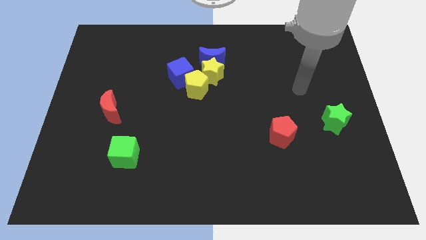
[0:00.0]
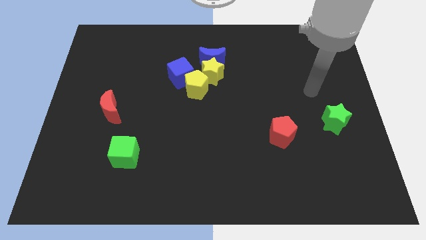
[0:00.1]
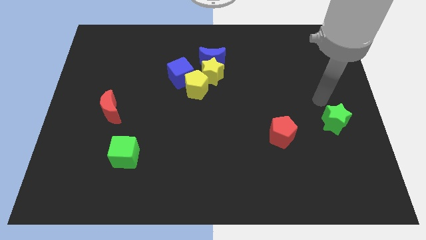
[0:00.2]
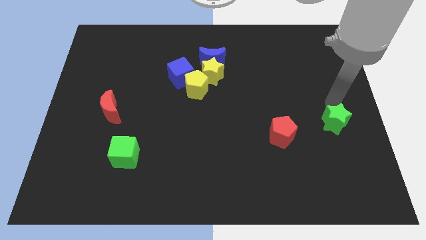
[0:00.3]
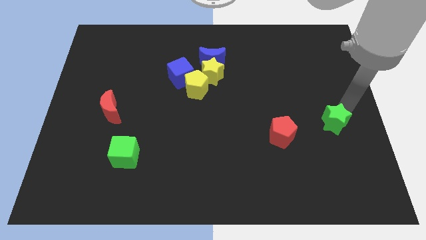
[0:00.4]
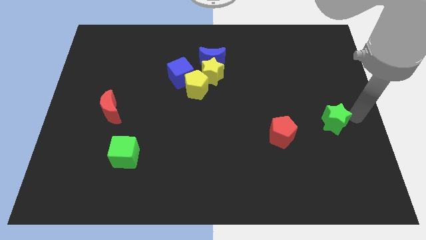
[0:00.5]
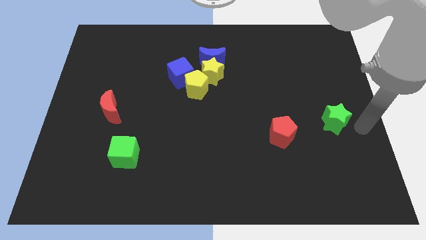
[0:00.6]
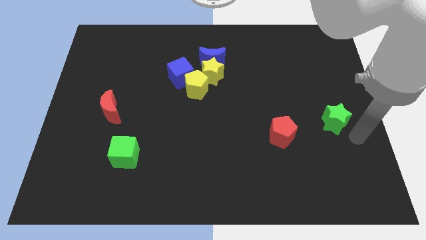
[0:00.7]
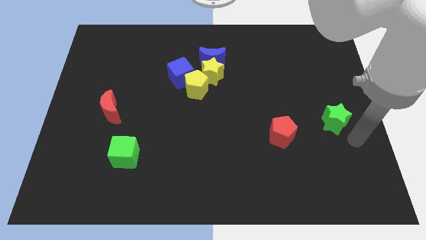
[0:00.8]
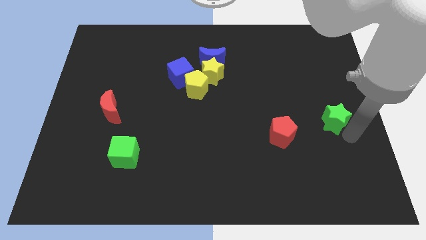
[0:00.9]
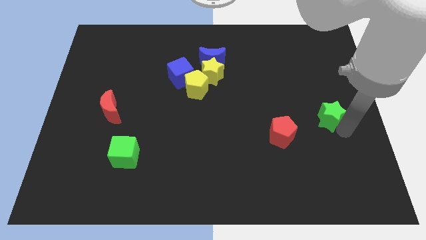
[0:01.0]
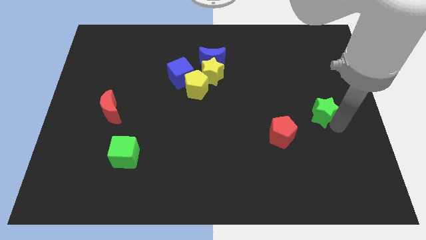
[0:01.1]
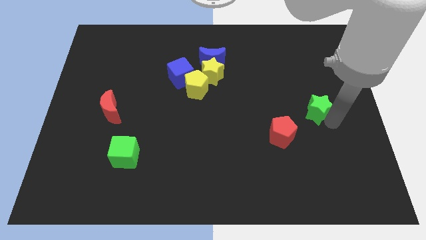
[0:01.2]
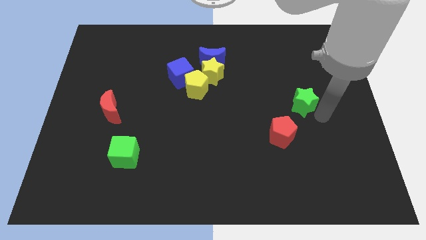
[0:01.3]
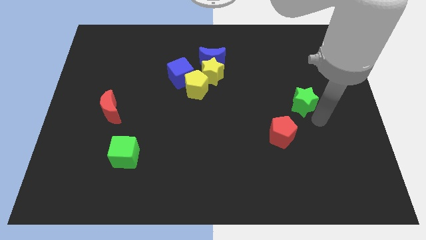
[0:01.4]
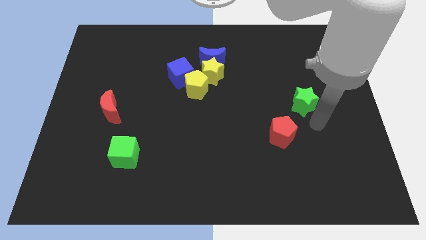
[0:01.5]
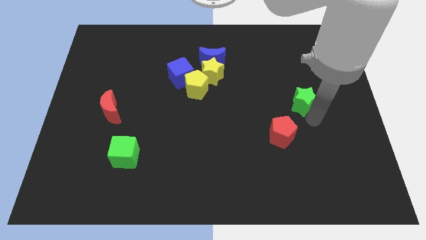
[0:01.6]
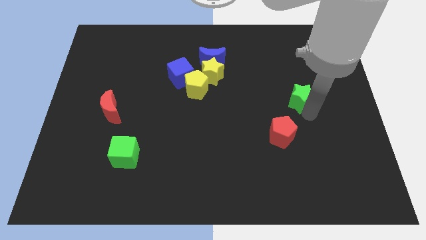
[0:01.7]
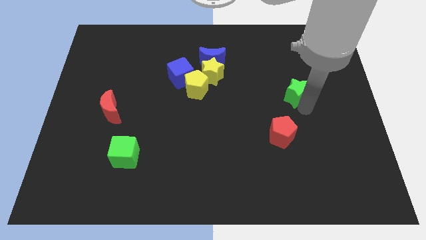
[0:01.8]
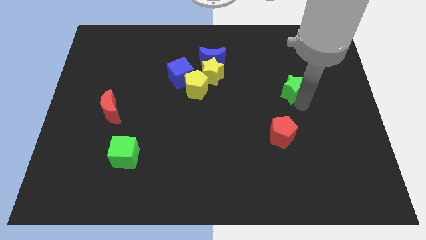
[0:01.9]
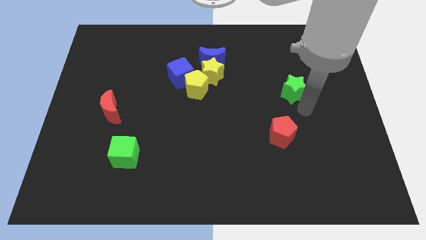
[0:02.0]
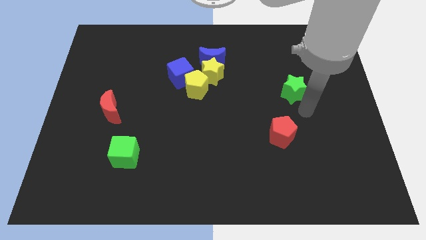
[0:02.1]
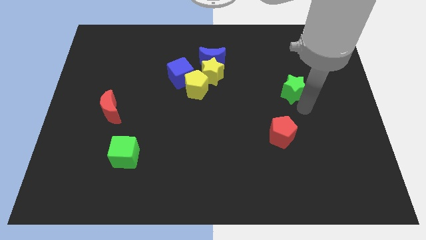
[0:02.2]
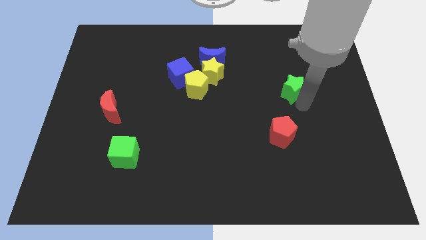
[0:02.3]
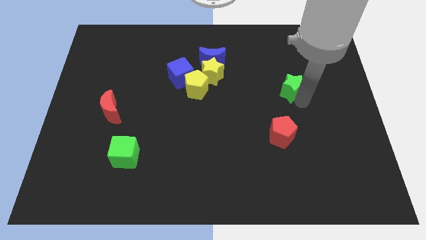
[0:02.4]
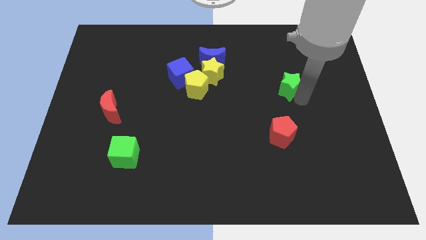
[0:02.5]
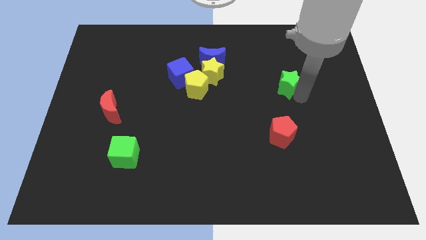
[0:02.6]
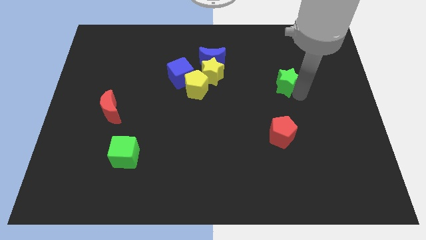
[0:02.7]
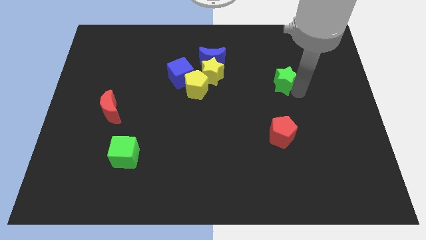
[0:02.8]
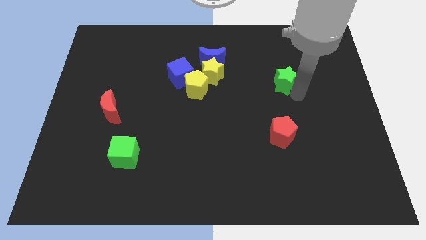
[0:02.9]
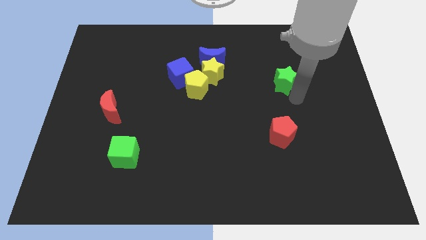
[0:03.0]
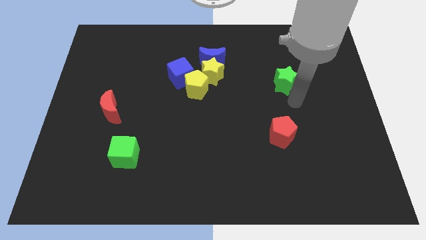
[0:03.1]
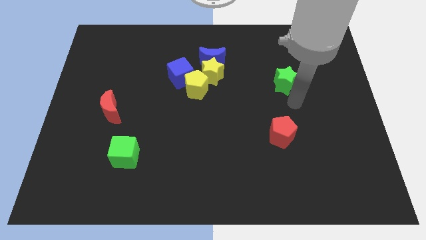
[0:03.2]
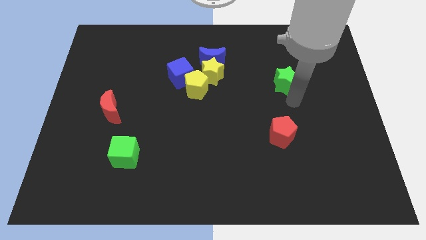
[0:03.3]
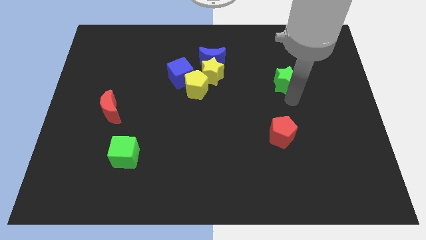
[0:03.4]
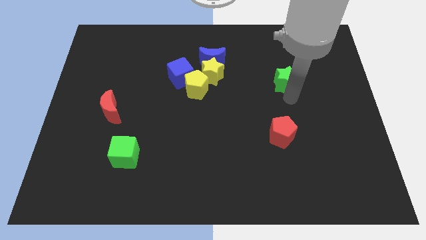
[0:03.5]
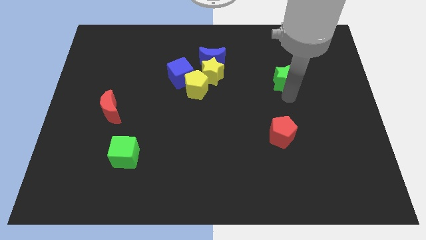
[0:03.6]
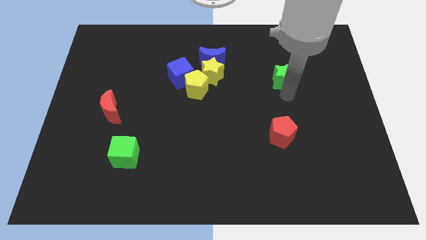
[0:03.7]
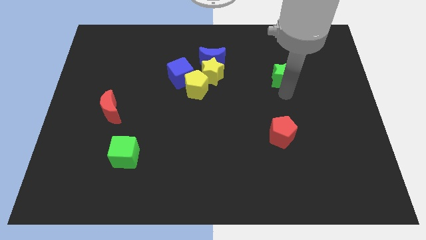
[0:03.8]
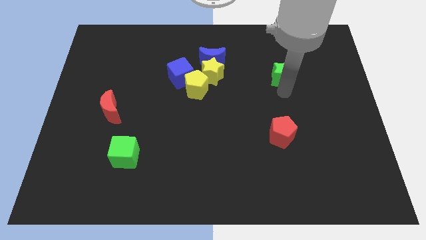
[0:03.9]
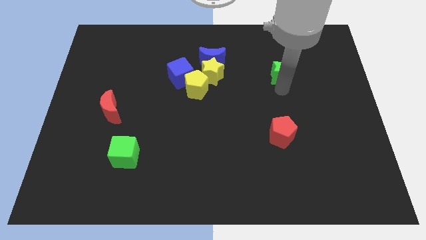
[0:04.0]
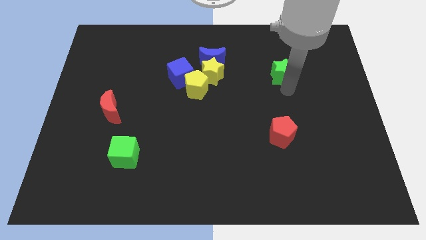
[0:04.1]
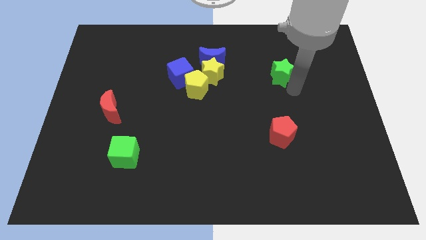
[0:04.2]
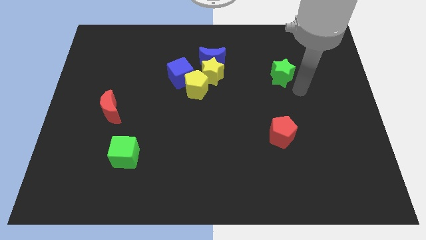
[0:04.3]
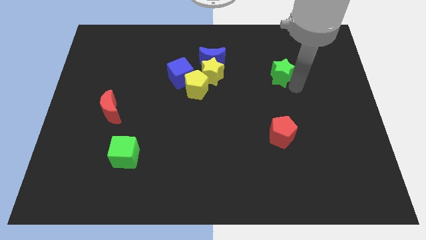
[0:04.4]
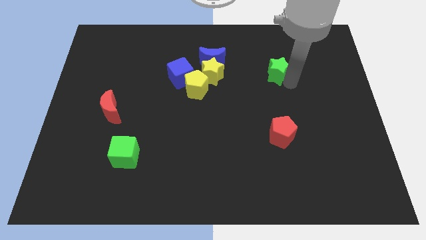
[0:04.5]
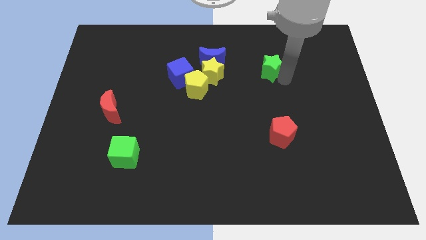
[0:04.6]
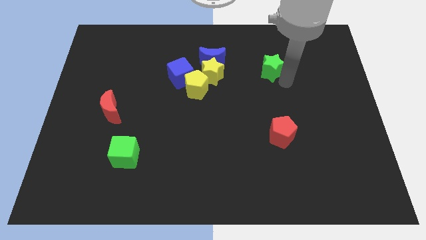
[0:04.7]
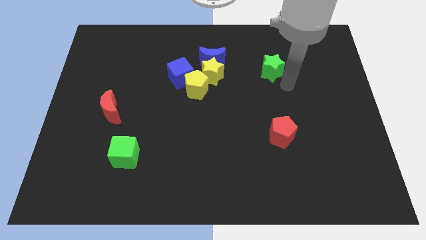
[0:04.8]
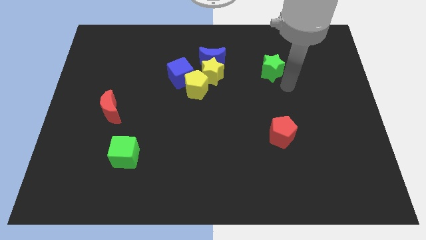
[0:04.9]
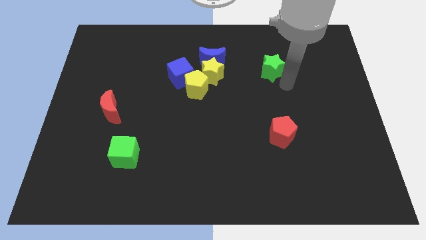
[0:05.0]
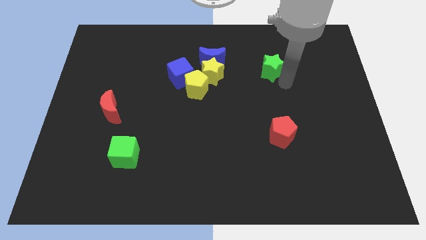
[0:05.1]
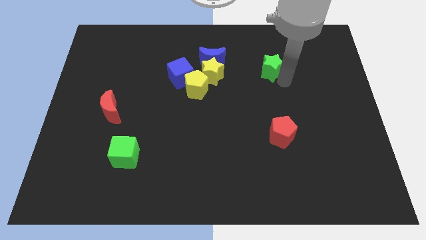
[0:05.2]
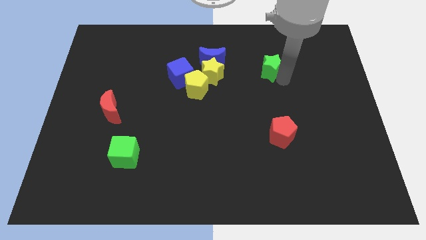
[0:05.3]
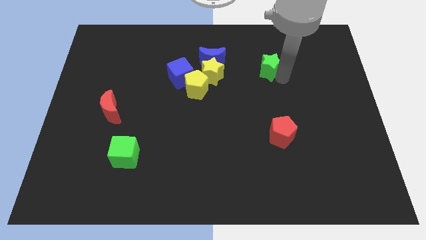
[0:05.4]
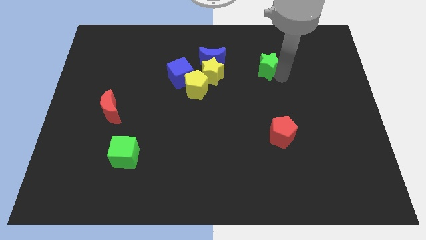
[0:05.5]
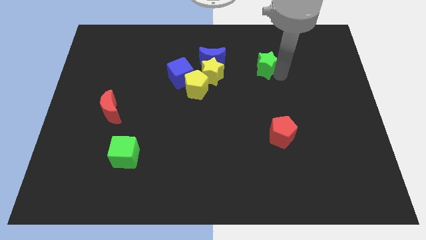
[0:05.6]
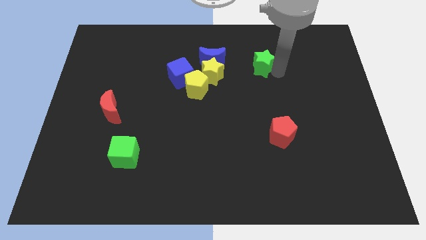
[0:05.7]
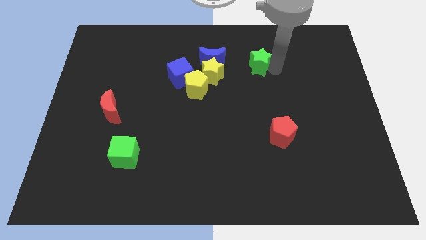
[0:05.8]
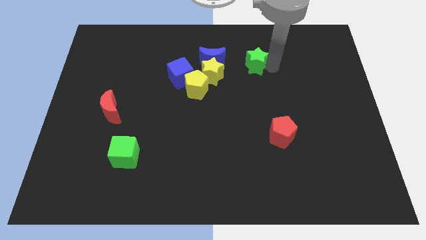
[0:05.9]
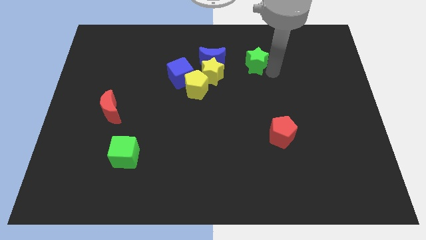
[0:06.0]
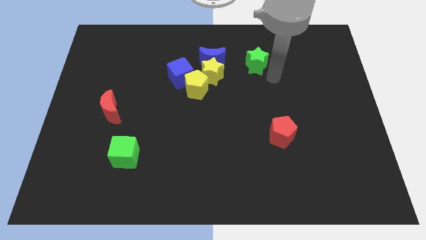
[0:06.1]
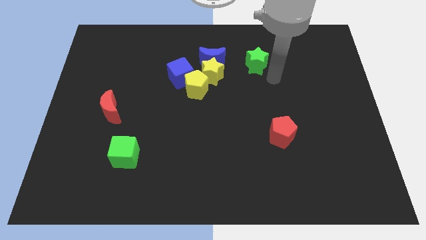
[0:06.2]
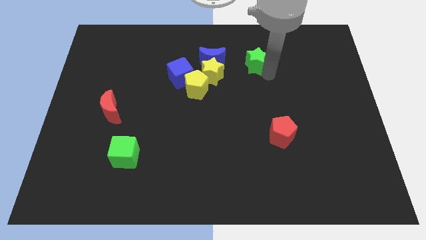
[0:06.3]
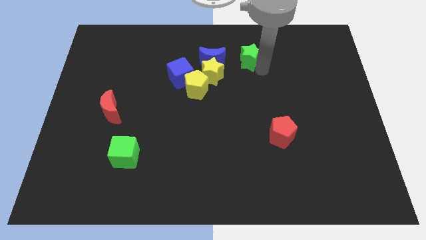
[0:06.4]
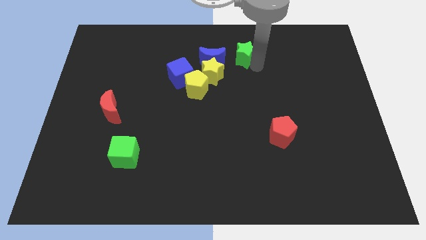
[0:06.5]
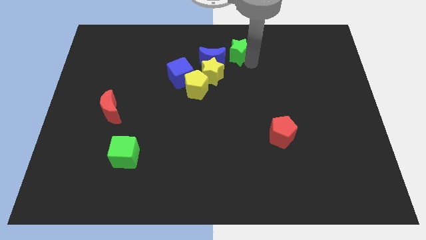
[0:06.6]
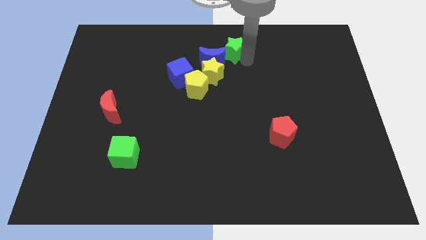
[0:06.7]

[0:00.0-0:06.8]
move the green star to the towards your base

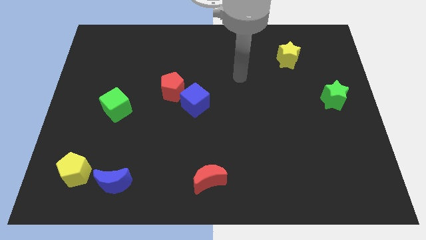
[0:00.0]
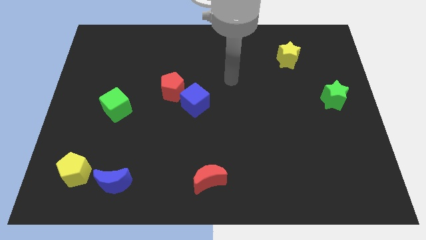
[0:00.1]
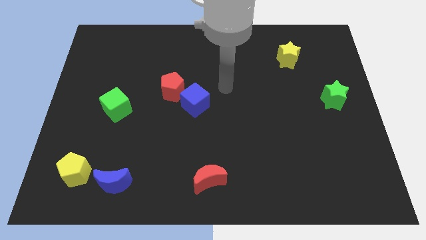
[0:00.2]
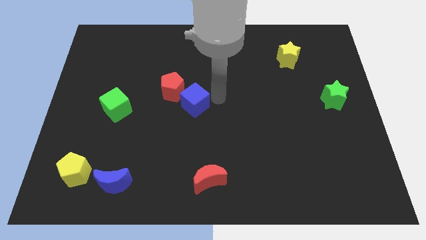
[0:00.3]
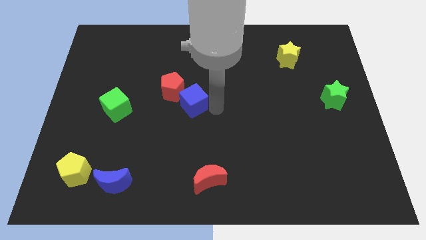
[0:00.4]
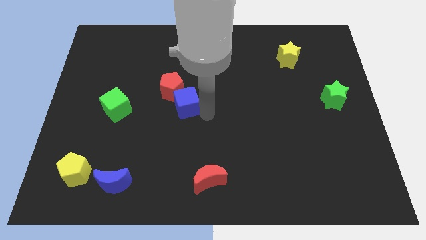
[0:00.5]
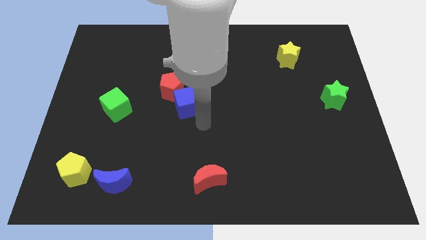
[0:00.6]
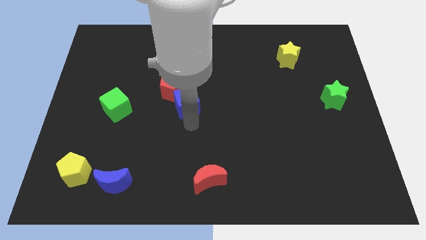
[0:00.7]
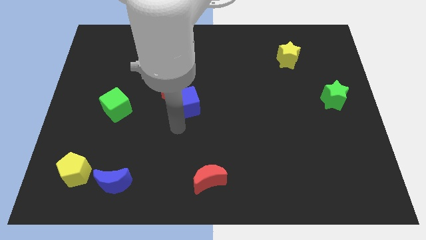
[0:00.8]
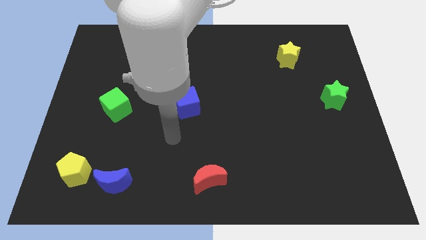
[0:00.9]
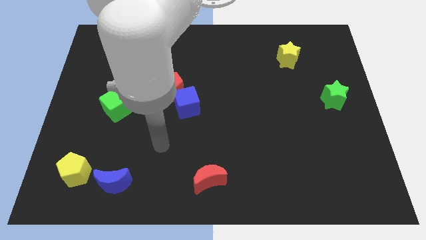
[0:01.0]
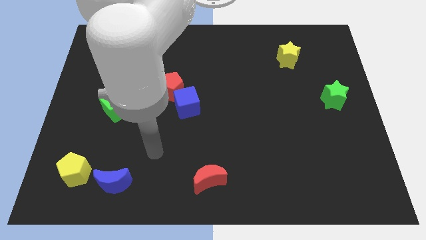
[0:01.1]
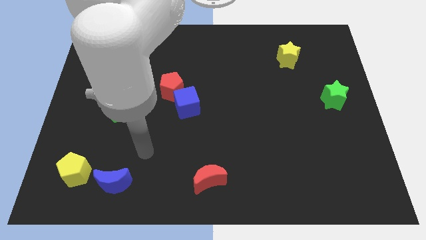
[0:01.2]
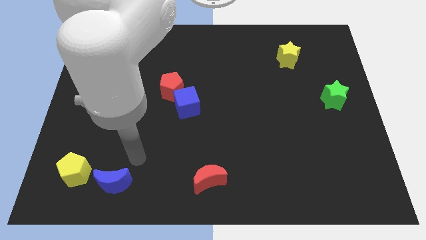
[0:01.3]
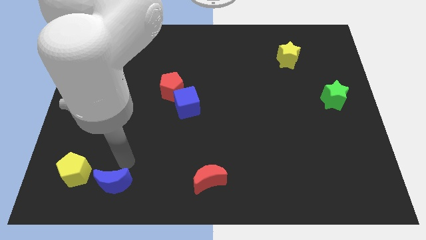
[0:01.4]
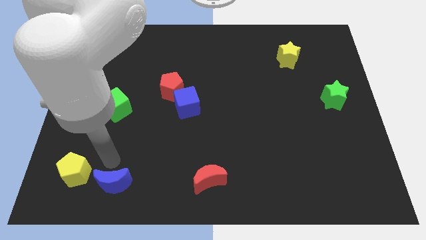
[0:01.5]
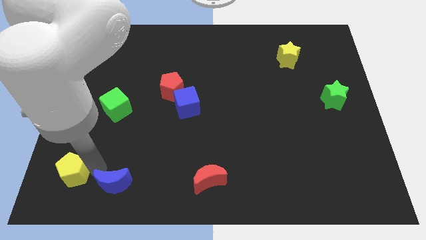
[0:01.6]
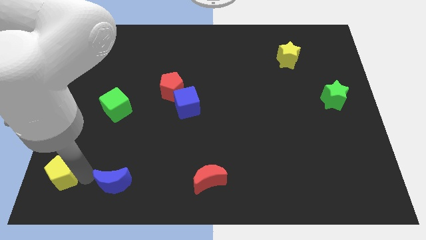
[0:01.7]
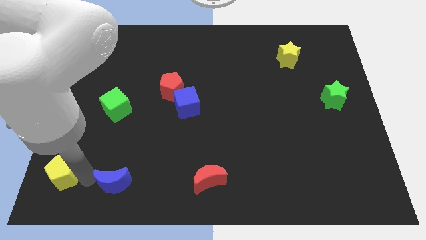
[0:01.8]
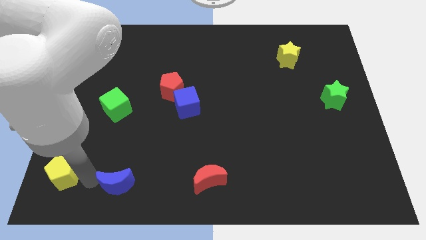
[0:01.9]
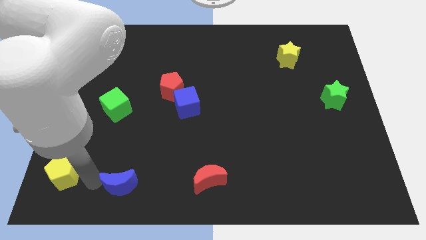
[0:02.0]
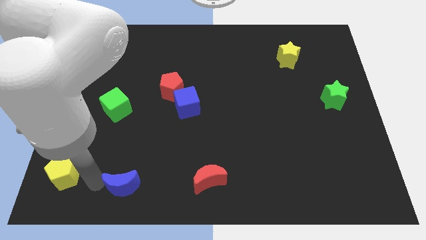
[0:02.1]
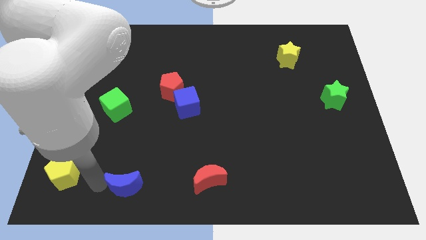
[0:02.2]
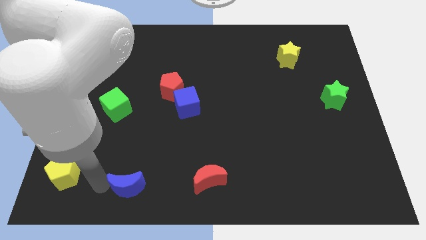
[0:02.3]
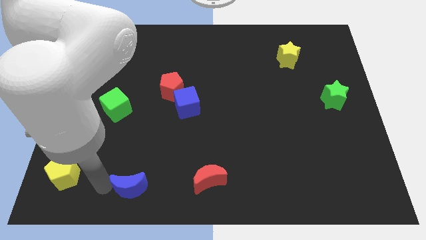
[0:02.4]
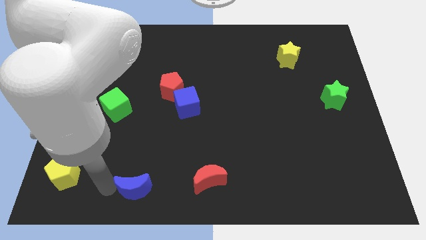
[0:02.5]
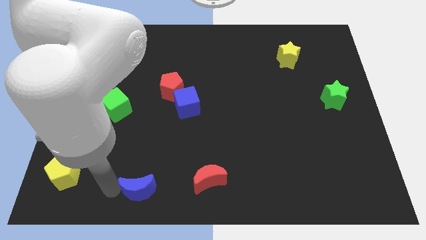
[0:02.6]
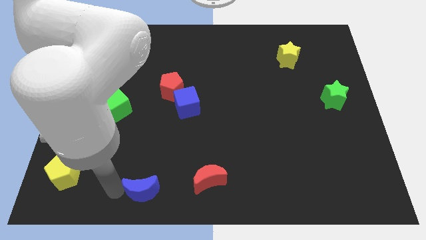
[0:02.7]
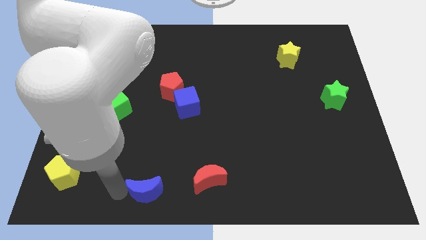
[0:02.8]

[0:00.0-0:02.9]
slide the blue moon to the bottom
